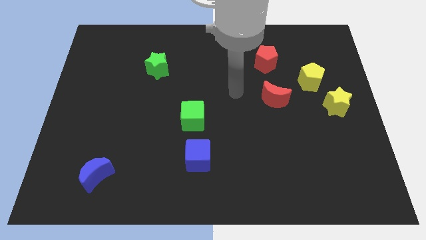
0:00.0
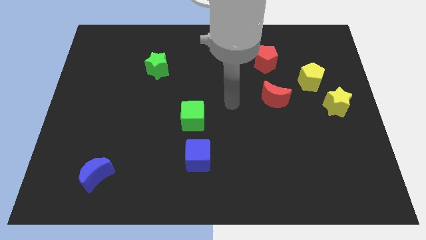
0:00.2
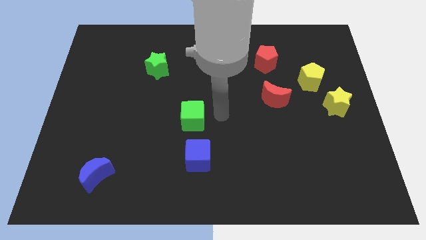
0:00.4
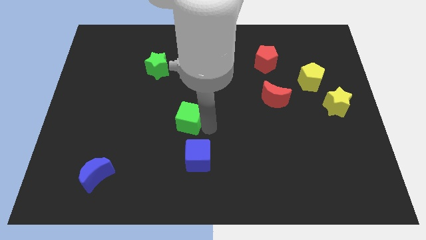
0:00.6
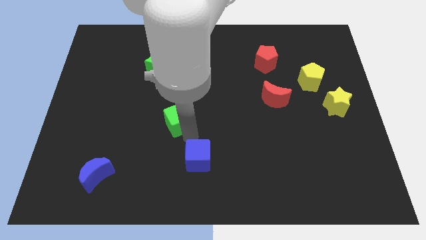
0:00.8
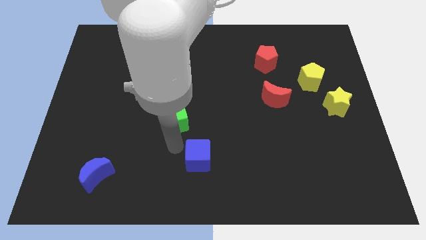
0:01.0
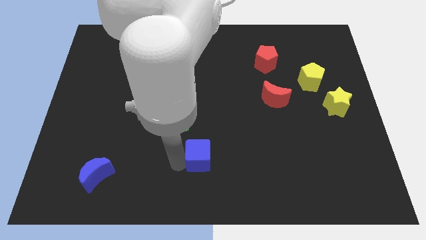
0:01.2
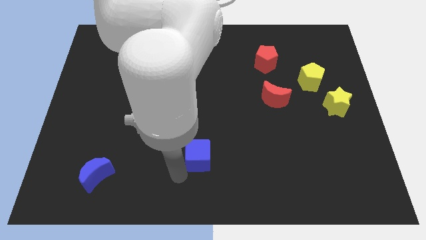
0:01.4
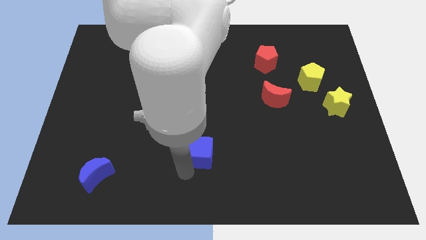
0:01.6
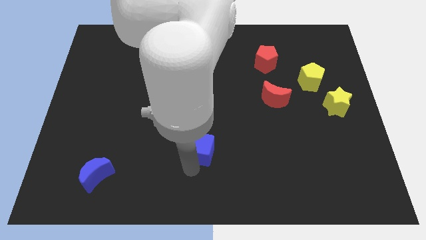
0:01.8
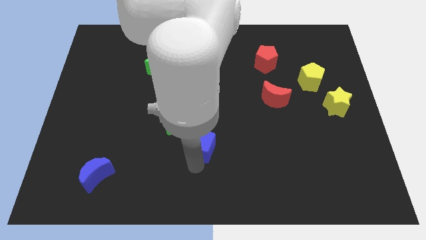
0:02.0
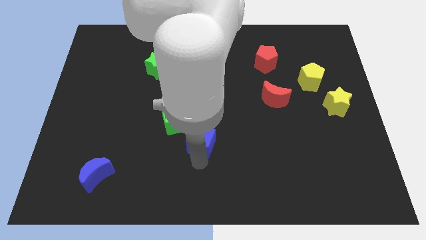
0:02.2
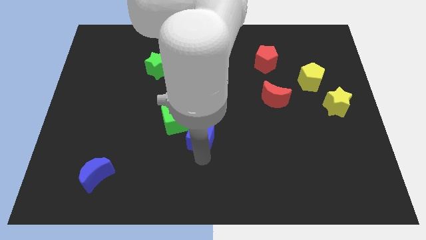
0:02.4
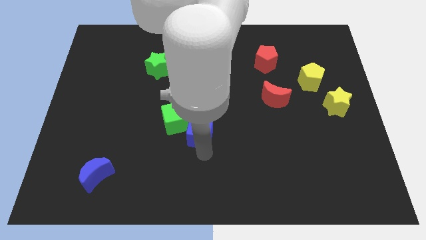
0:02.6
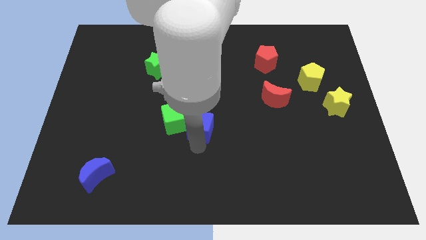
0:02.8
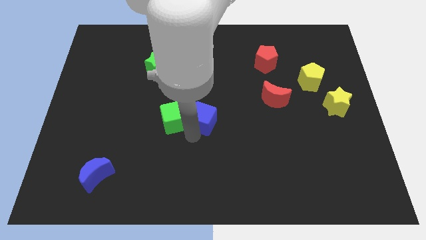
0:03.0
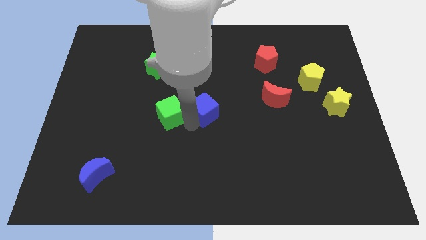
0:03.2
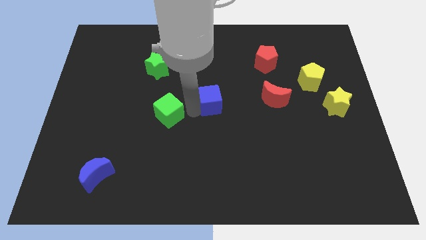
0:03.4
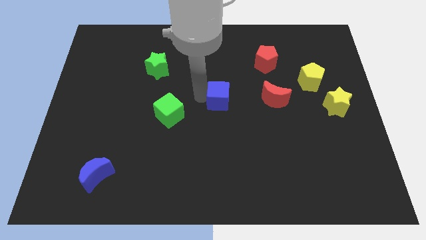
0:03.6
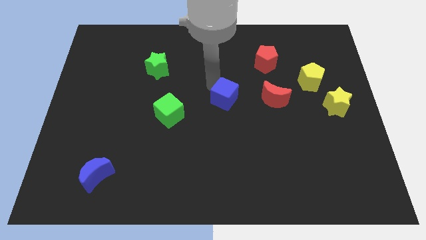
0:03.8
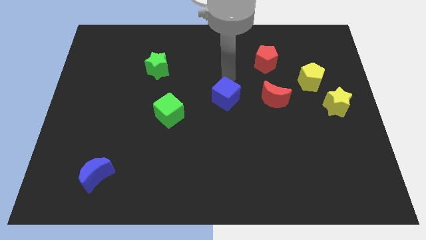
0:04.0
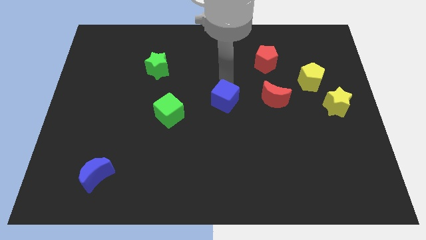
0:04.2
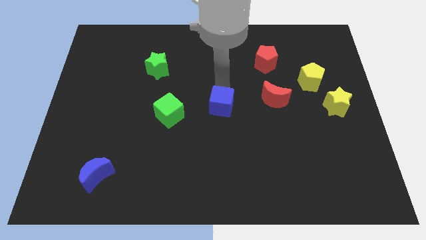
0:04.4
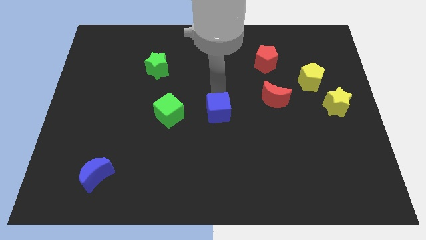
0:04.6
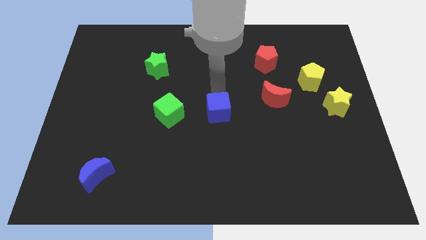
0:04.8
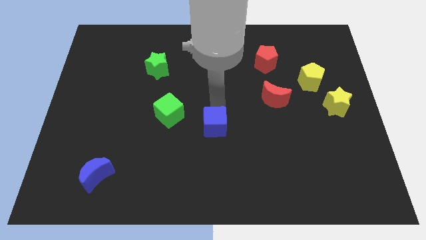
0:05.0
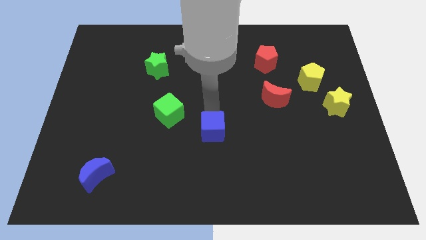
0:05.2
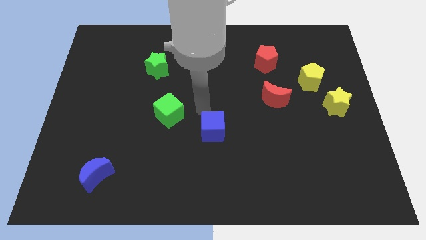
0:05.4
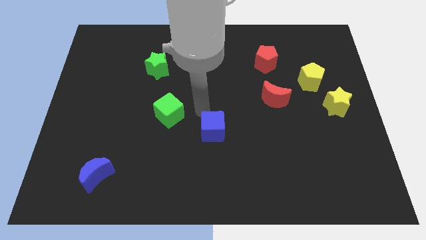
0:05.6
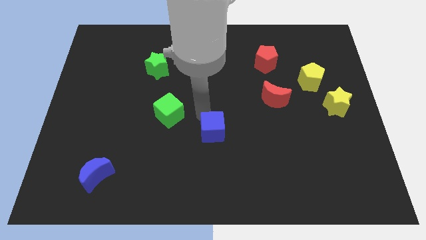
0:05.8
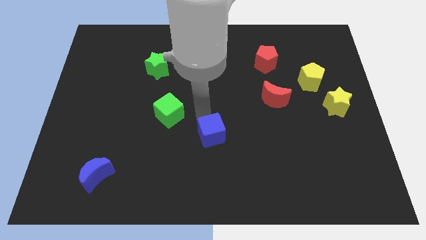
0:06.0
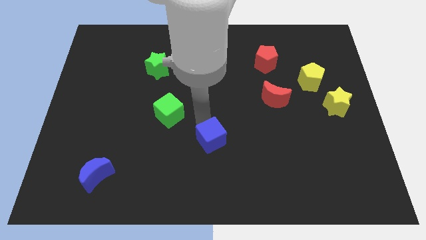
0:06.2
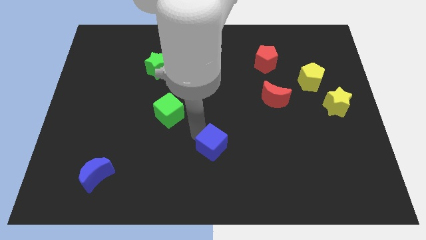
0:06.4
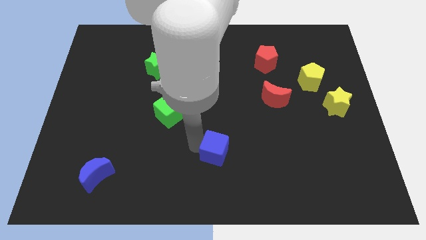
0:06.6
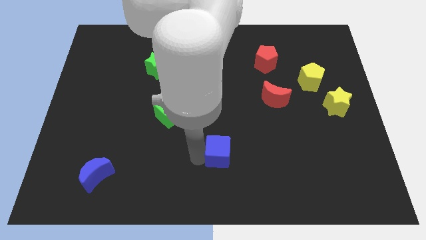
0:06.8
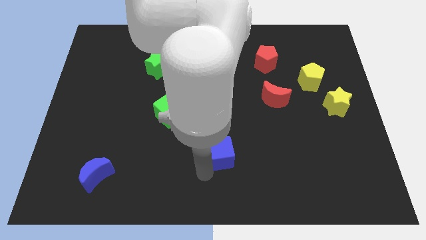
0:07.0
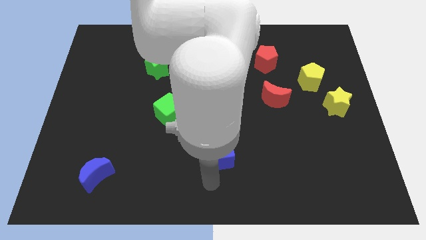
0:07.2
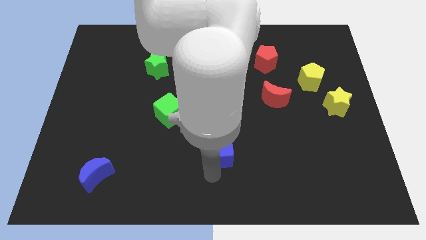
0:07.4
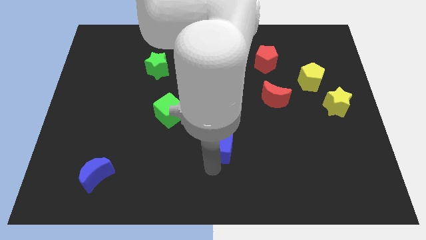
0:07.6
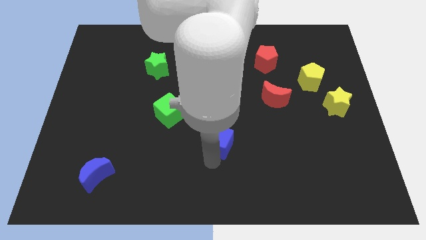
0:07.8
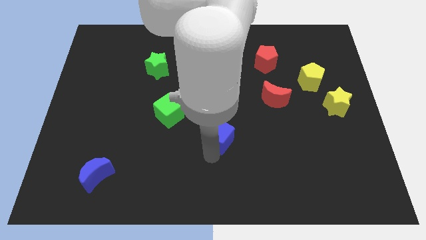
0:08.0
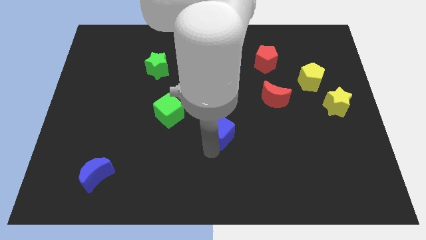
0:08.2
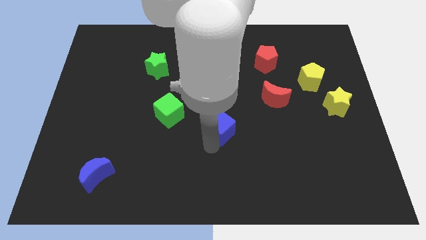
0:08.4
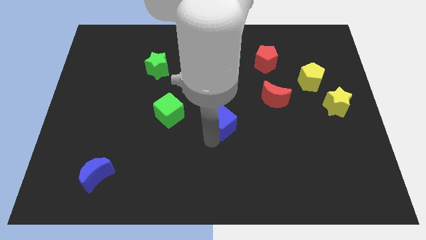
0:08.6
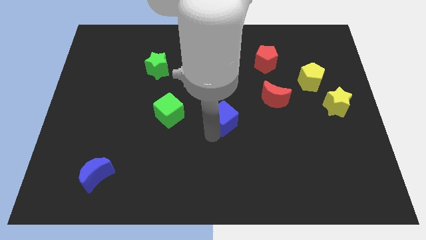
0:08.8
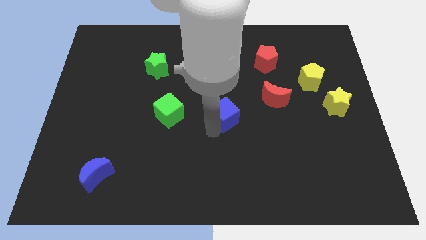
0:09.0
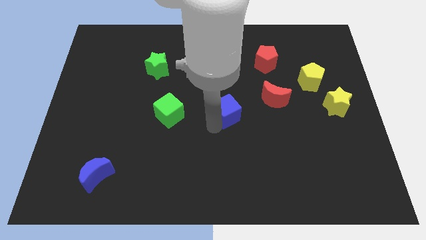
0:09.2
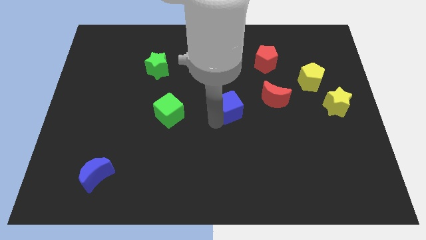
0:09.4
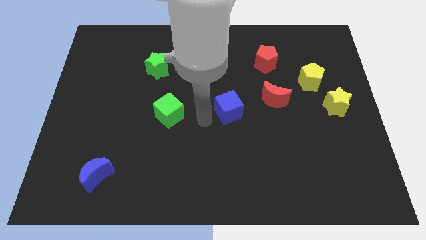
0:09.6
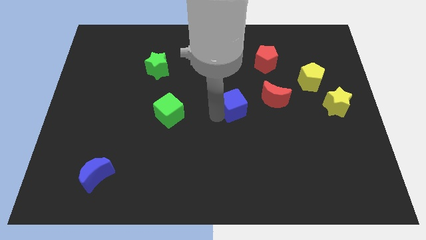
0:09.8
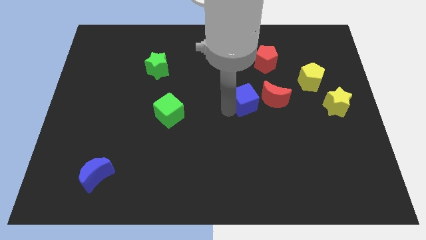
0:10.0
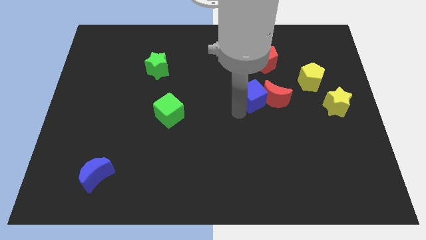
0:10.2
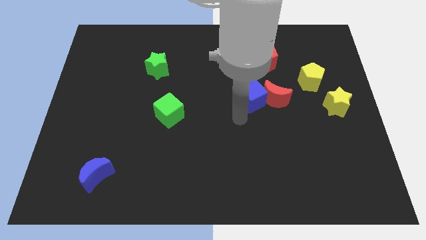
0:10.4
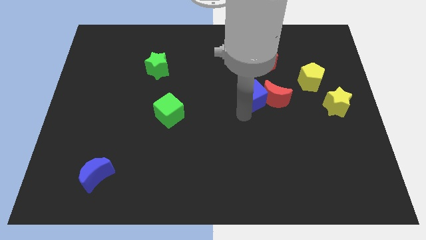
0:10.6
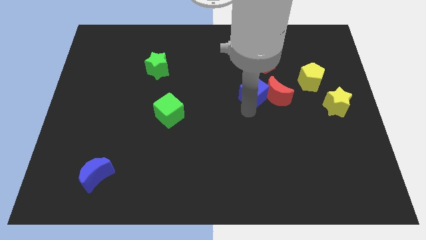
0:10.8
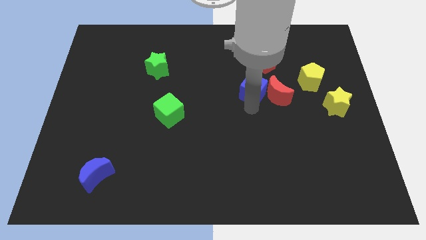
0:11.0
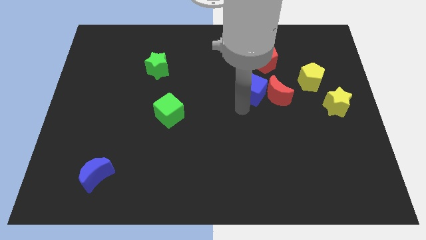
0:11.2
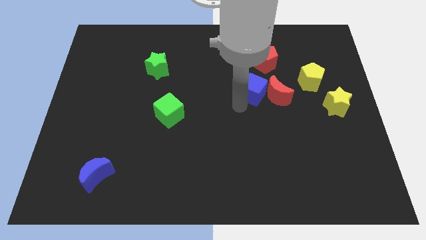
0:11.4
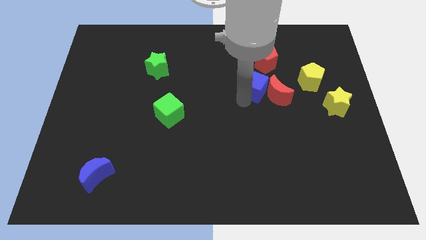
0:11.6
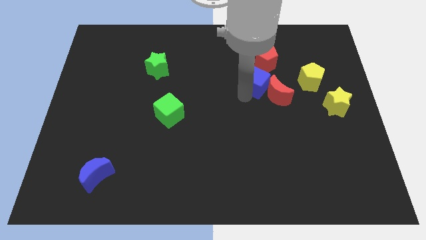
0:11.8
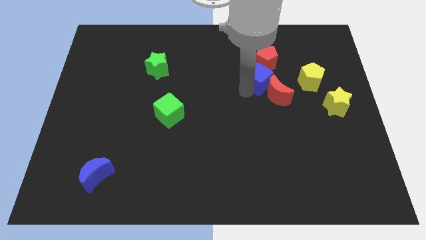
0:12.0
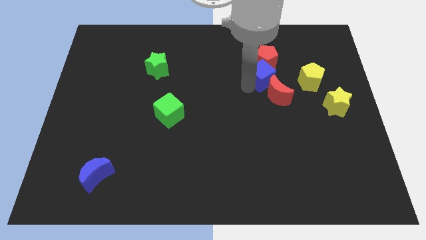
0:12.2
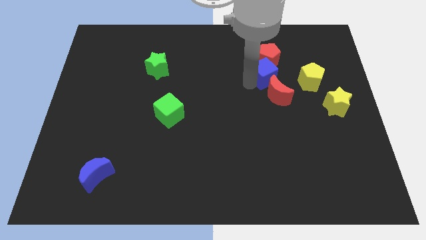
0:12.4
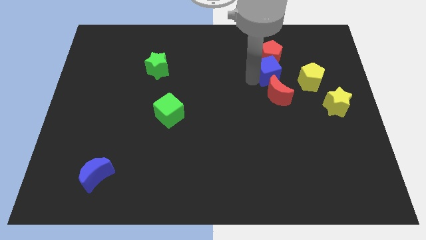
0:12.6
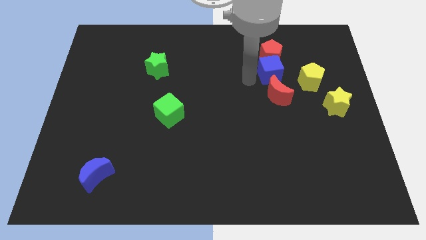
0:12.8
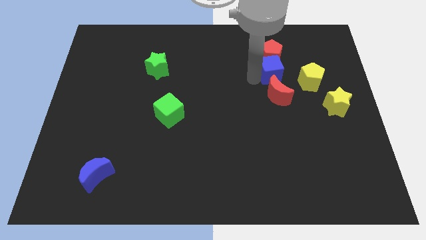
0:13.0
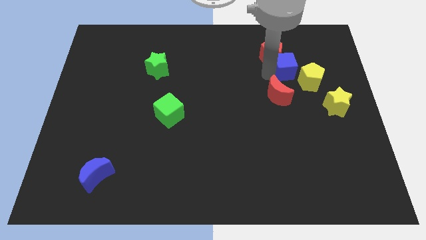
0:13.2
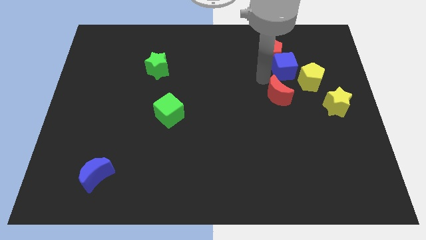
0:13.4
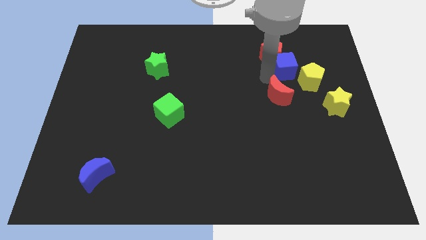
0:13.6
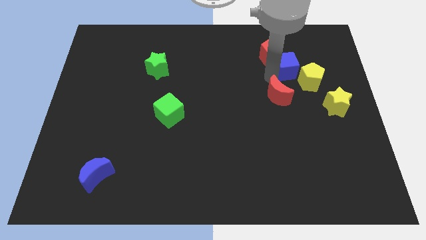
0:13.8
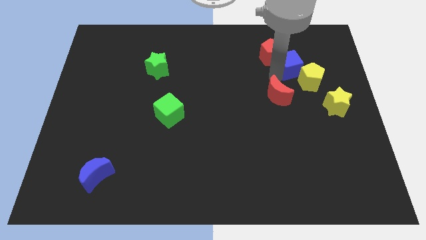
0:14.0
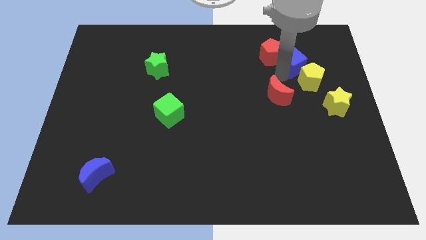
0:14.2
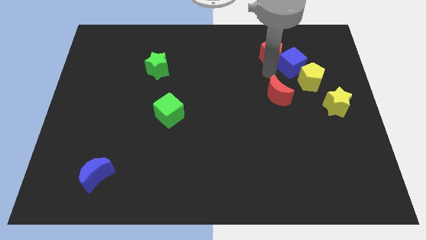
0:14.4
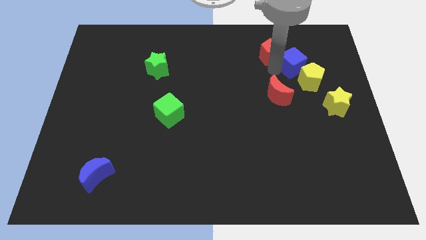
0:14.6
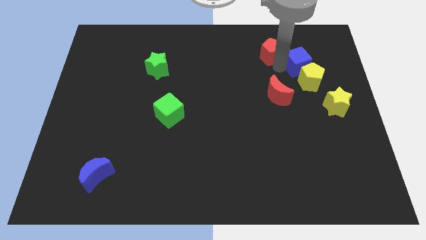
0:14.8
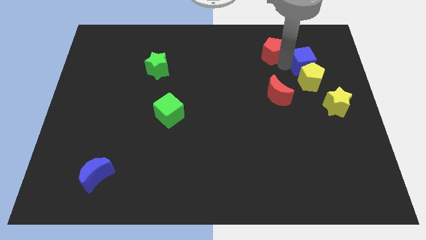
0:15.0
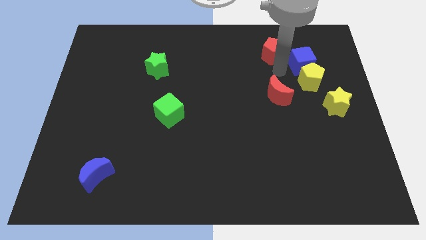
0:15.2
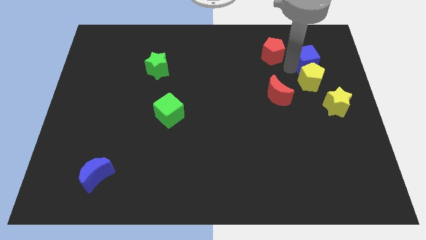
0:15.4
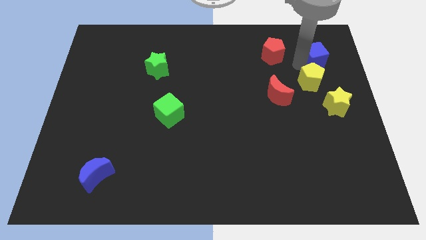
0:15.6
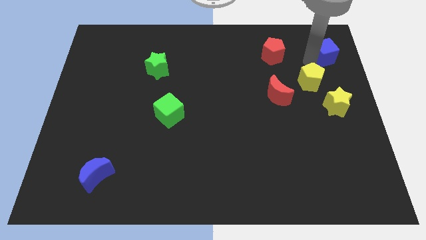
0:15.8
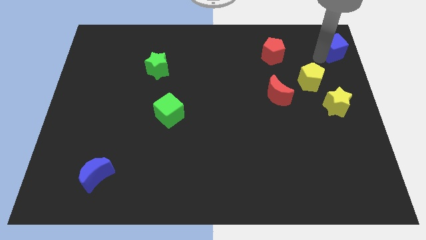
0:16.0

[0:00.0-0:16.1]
slide the blue cube to the top right corner
